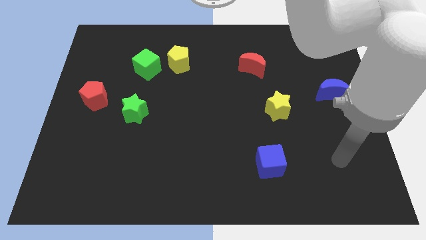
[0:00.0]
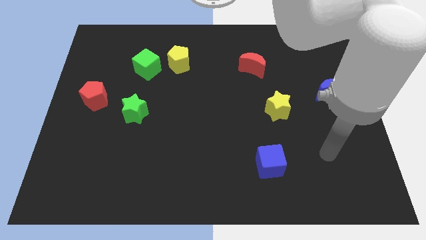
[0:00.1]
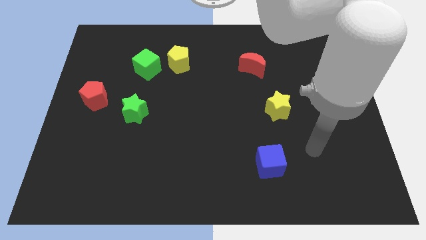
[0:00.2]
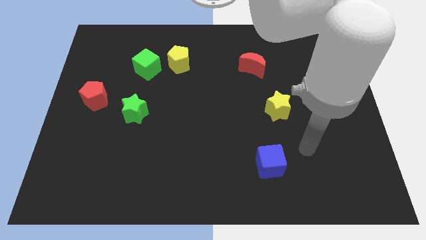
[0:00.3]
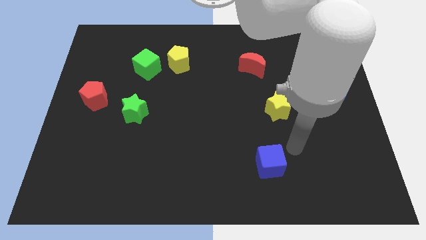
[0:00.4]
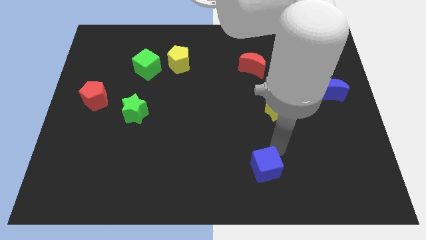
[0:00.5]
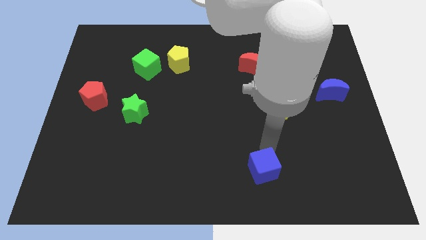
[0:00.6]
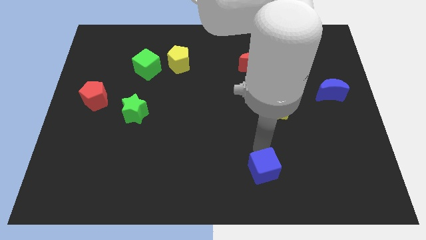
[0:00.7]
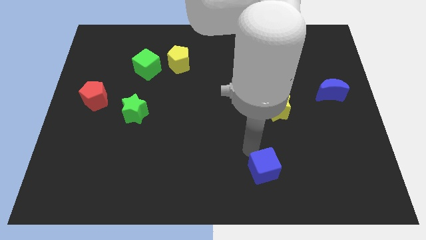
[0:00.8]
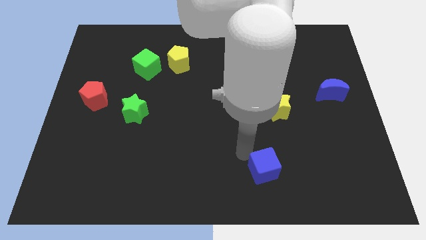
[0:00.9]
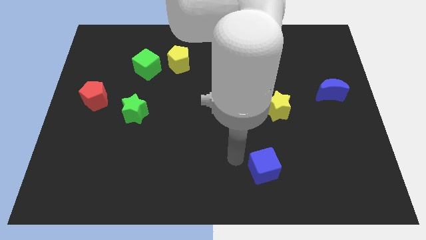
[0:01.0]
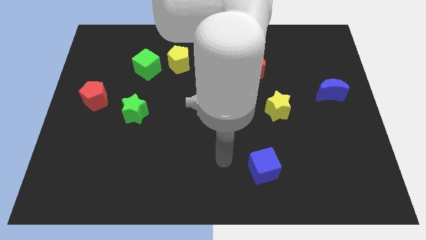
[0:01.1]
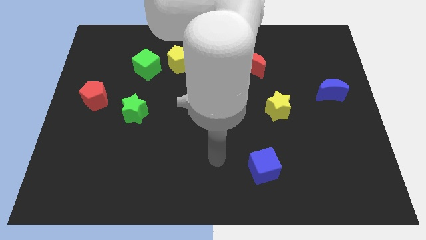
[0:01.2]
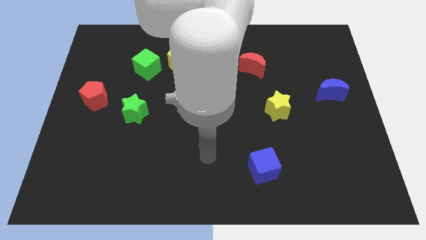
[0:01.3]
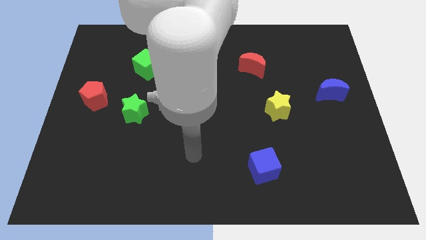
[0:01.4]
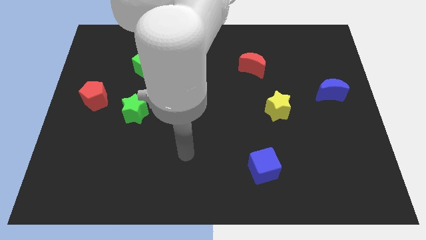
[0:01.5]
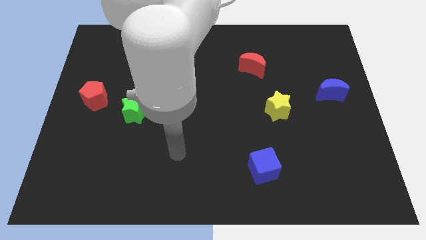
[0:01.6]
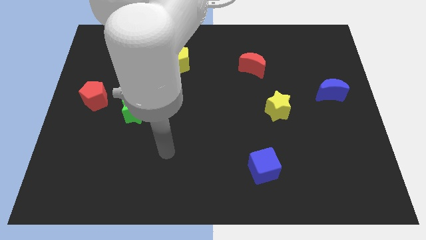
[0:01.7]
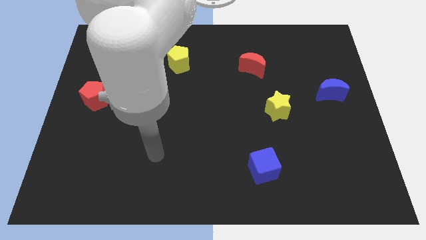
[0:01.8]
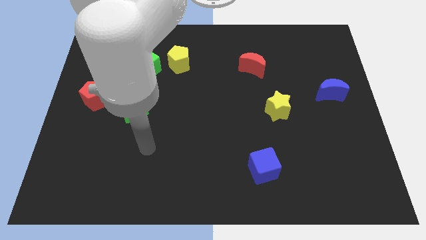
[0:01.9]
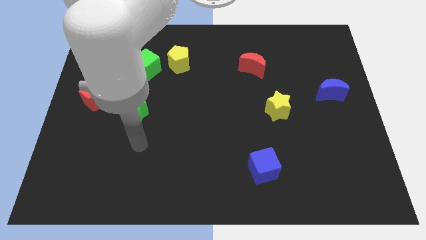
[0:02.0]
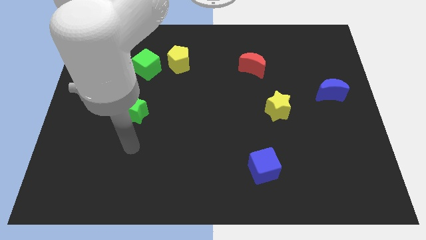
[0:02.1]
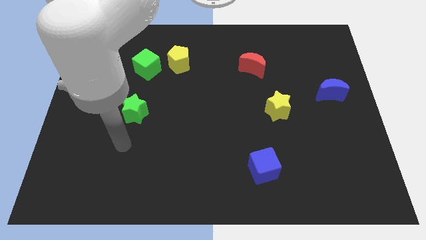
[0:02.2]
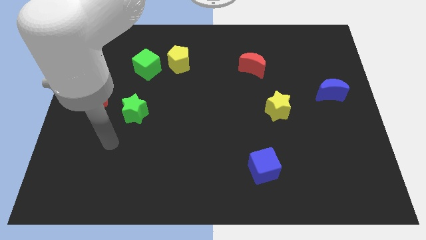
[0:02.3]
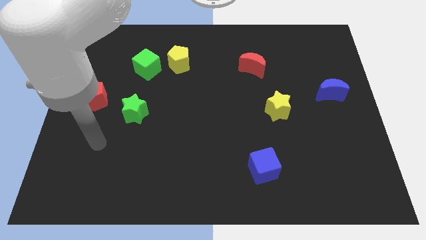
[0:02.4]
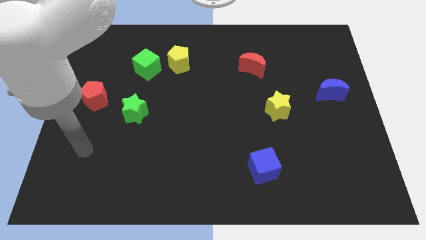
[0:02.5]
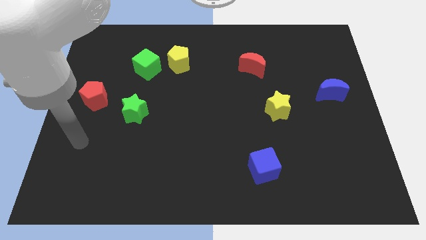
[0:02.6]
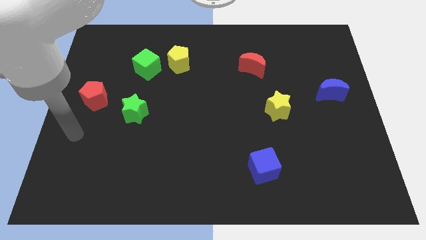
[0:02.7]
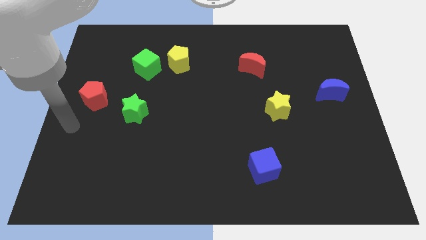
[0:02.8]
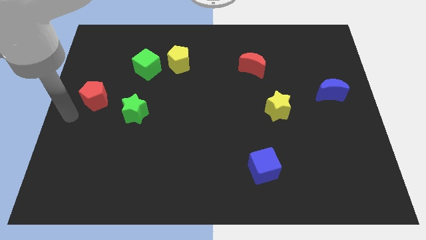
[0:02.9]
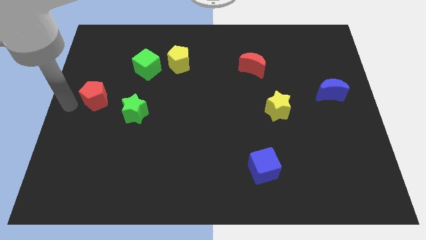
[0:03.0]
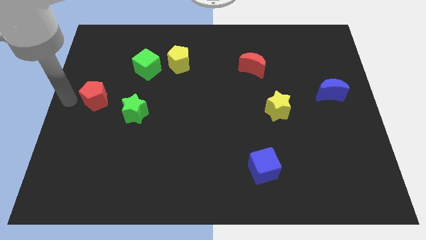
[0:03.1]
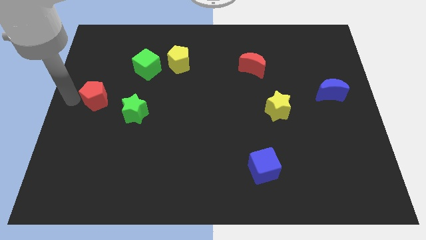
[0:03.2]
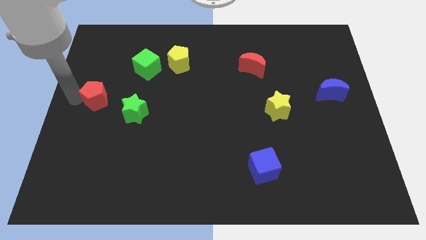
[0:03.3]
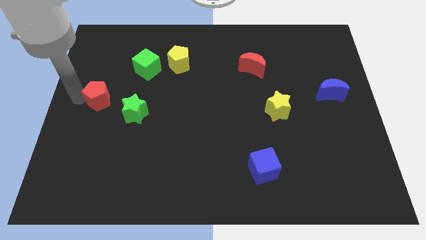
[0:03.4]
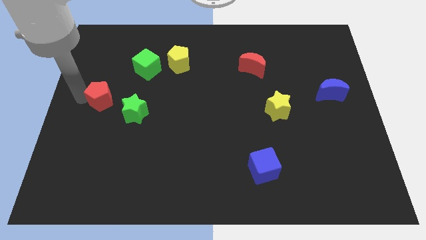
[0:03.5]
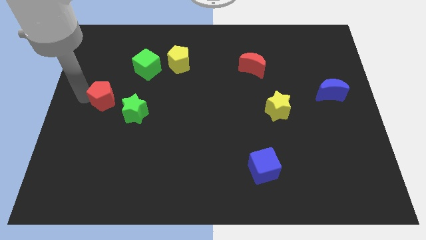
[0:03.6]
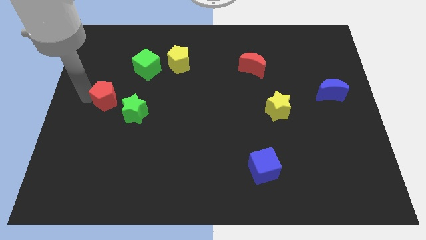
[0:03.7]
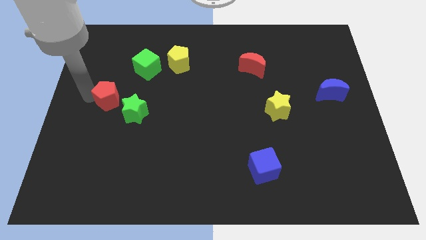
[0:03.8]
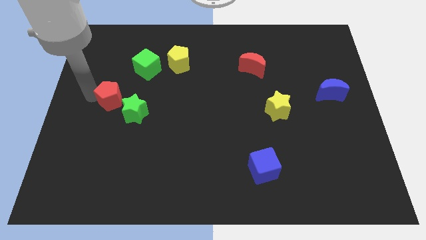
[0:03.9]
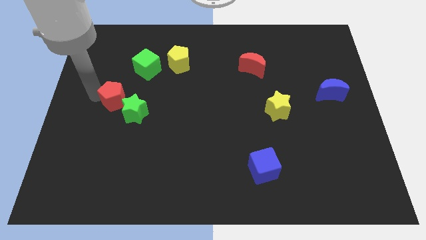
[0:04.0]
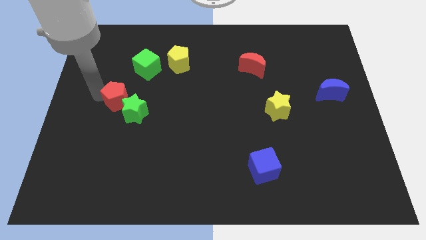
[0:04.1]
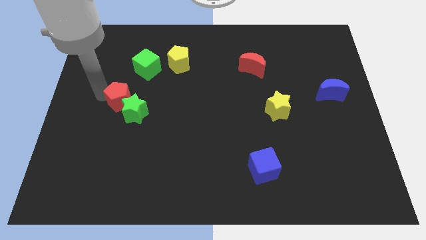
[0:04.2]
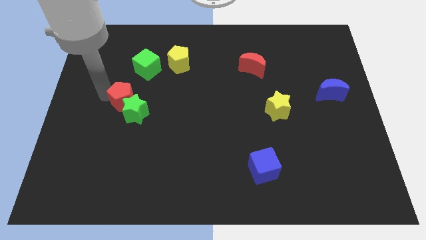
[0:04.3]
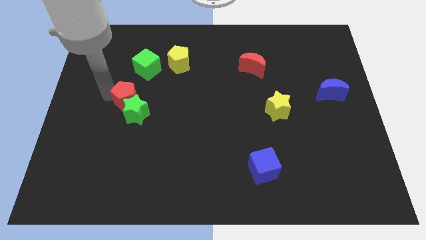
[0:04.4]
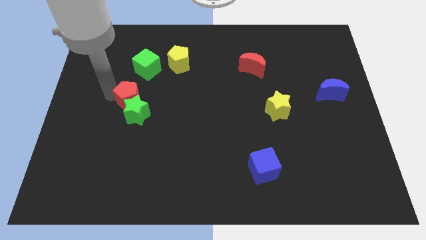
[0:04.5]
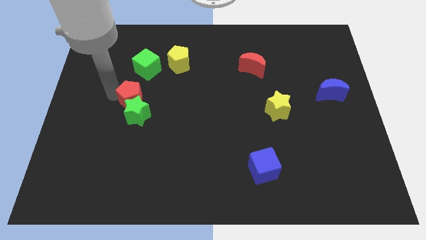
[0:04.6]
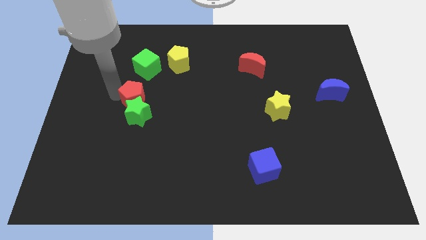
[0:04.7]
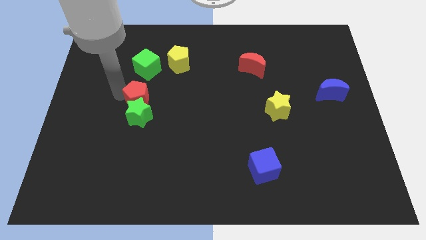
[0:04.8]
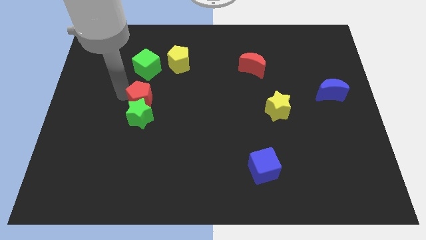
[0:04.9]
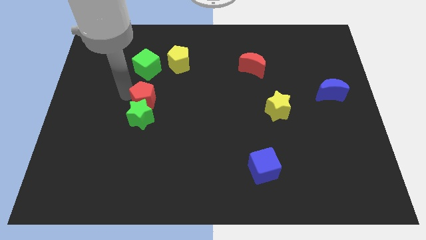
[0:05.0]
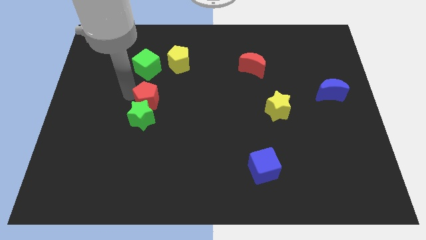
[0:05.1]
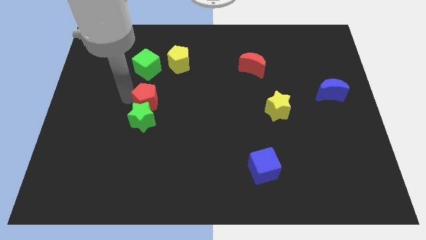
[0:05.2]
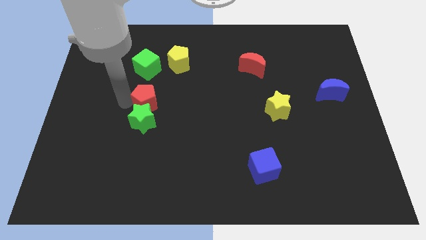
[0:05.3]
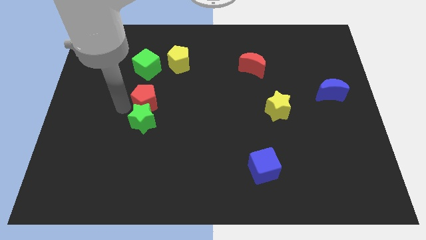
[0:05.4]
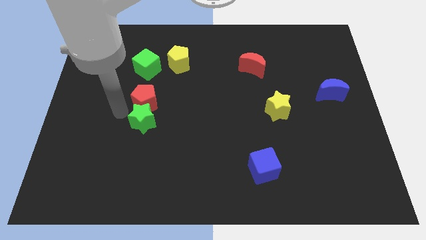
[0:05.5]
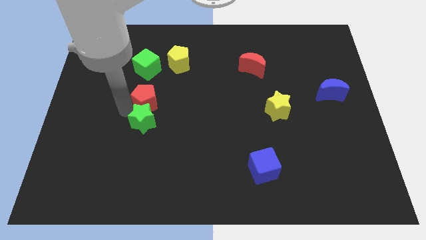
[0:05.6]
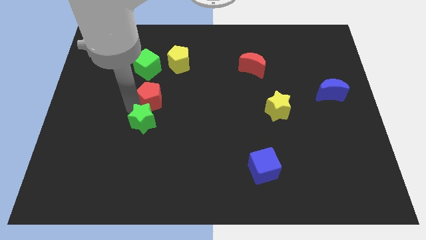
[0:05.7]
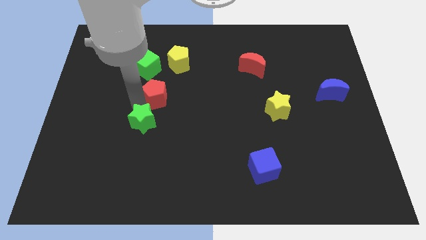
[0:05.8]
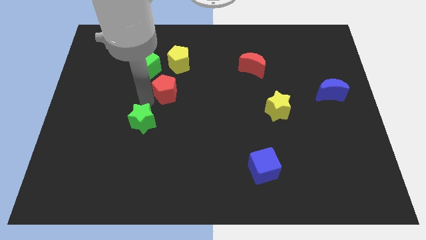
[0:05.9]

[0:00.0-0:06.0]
put the red pentagon to the middle of the board

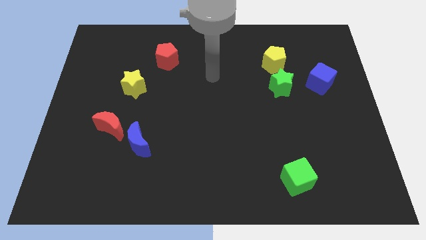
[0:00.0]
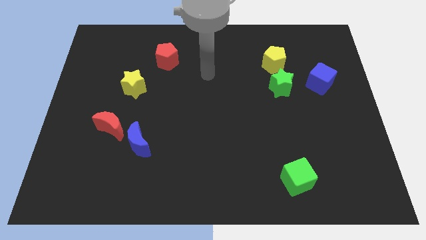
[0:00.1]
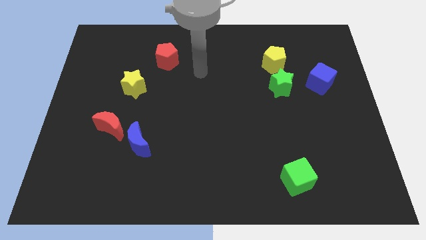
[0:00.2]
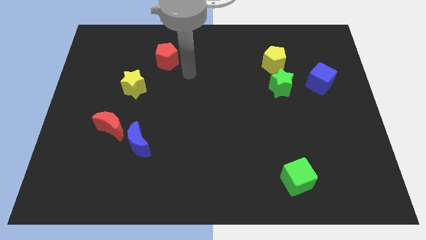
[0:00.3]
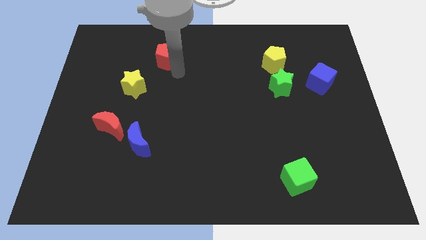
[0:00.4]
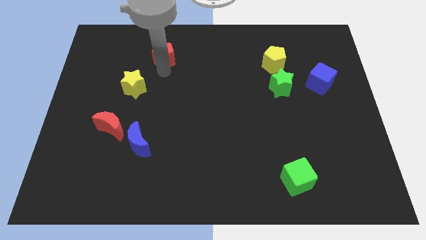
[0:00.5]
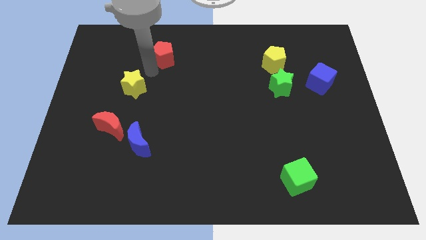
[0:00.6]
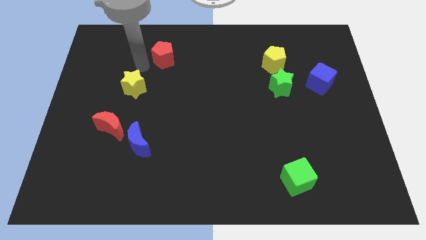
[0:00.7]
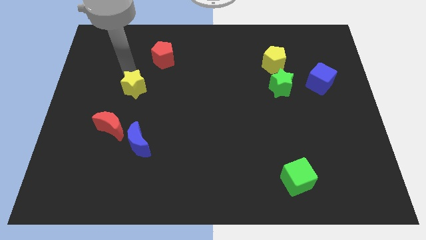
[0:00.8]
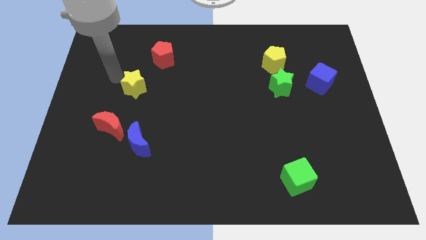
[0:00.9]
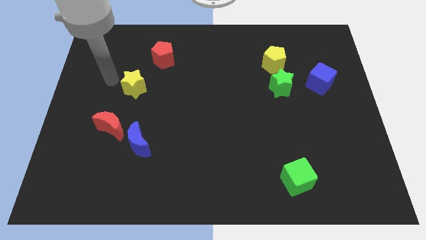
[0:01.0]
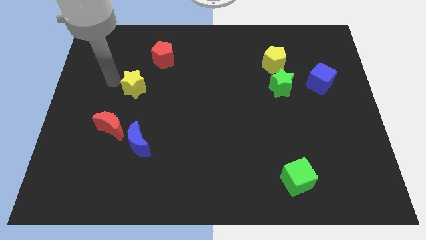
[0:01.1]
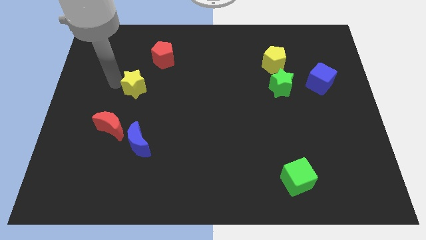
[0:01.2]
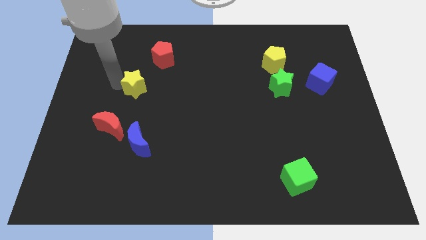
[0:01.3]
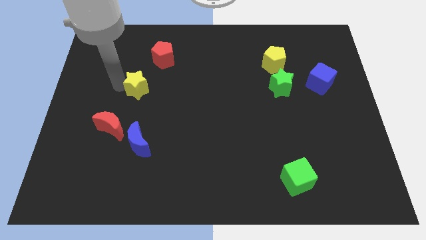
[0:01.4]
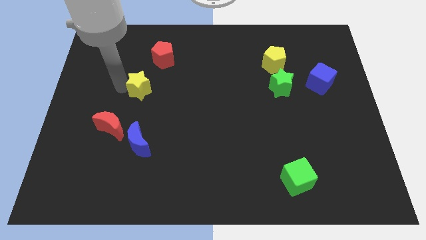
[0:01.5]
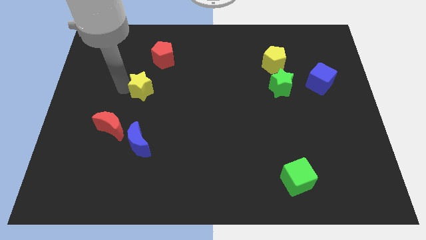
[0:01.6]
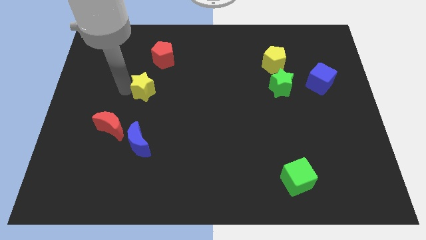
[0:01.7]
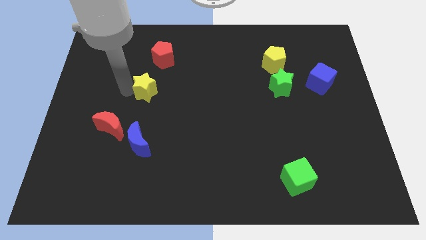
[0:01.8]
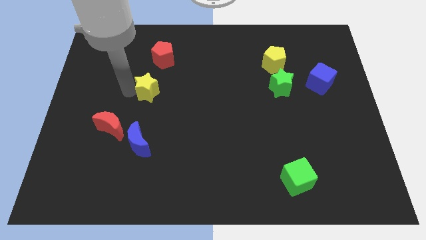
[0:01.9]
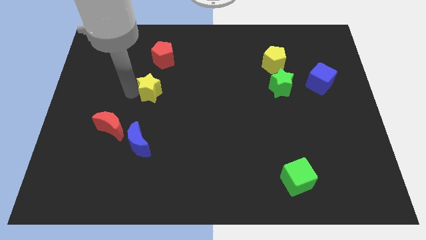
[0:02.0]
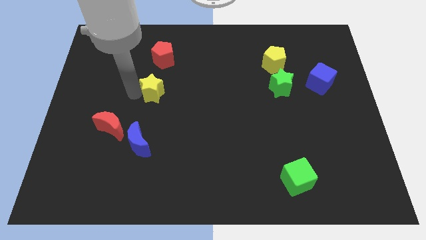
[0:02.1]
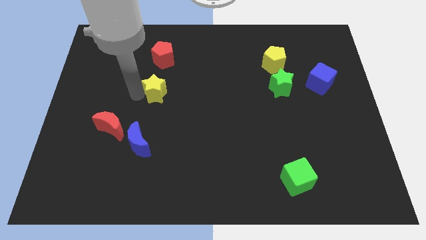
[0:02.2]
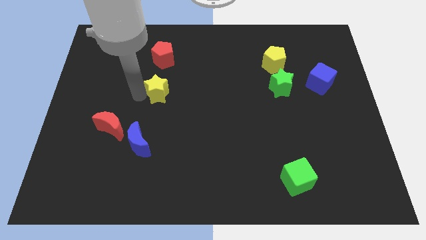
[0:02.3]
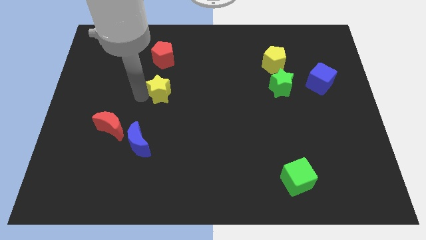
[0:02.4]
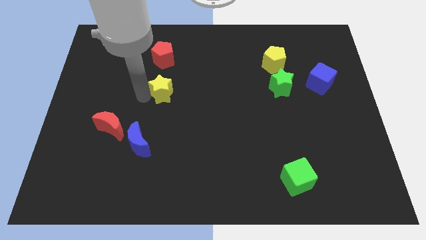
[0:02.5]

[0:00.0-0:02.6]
put the yellow star to the center
